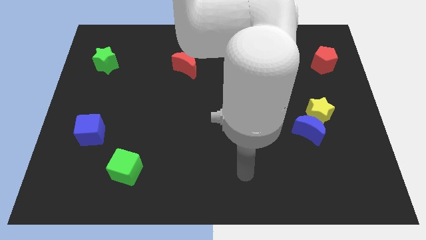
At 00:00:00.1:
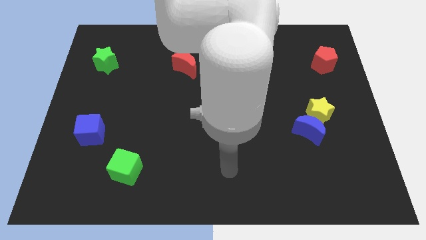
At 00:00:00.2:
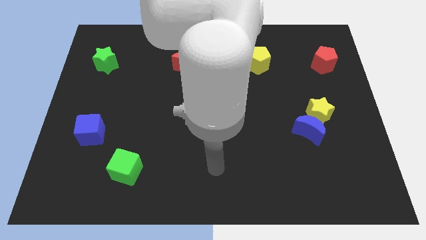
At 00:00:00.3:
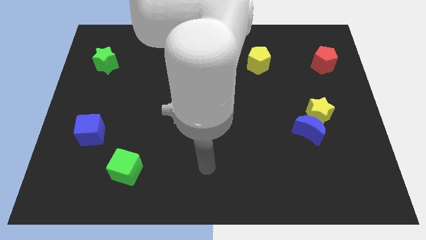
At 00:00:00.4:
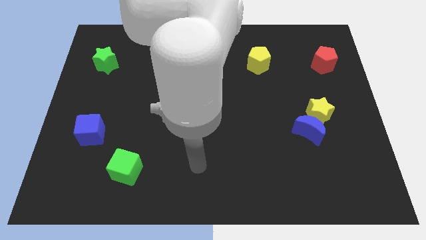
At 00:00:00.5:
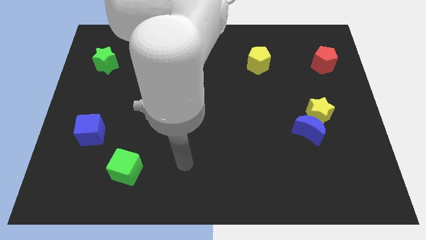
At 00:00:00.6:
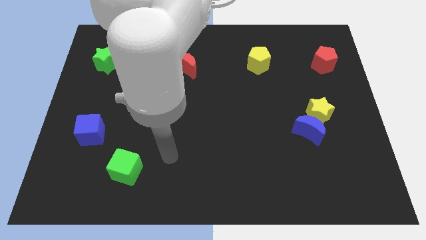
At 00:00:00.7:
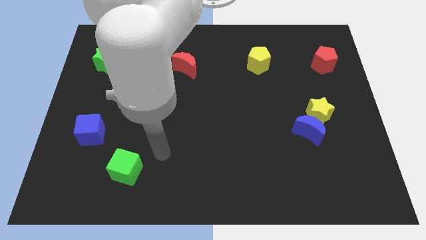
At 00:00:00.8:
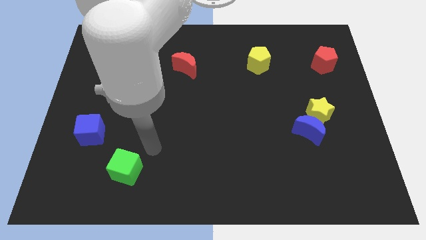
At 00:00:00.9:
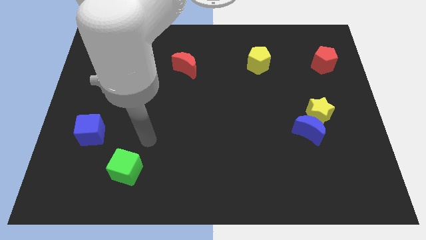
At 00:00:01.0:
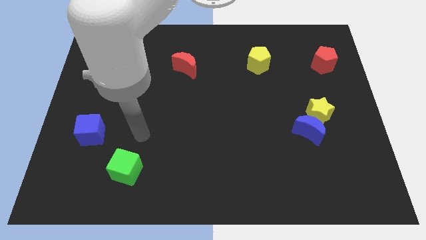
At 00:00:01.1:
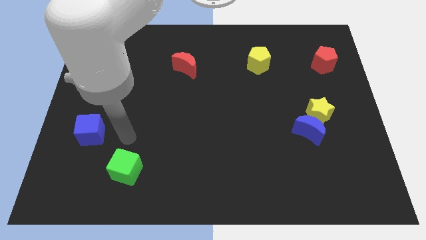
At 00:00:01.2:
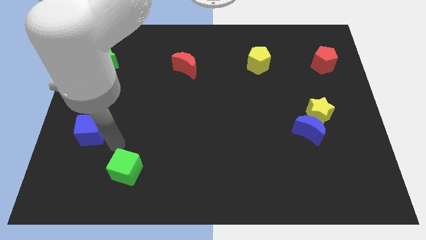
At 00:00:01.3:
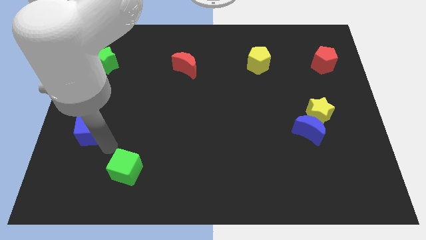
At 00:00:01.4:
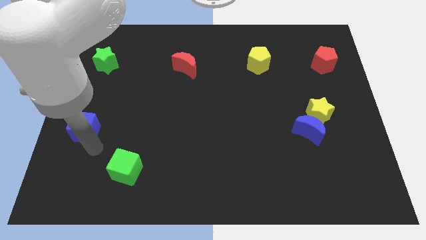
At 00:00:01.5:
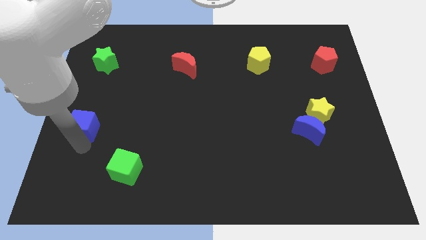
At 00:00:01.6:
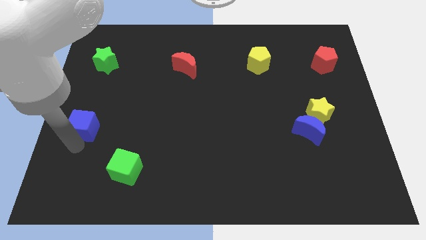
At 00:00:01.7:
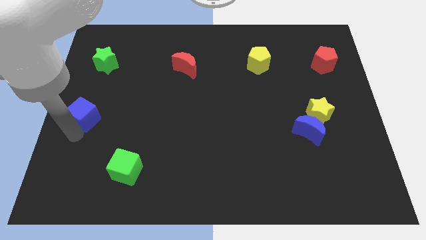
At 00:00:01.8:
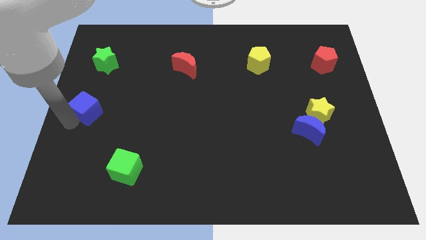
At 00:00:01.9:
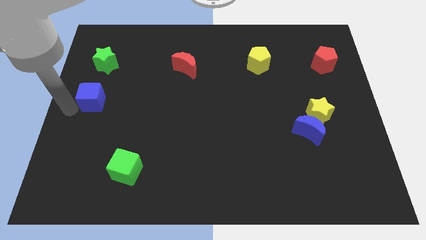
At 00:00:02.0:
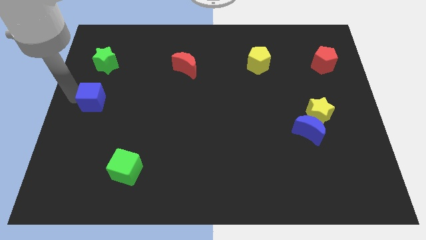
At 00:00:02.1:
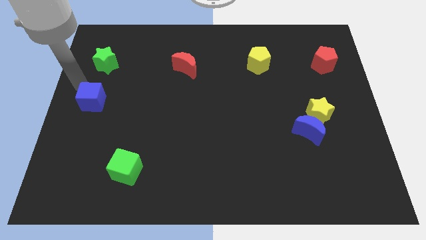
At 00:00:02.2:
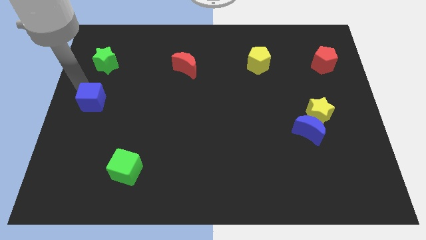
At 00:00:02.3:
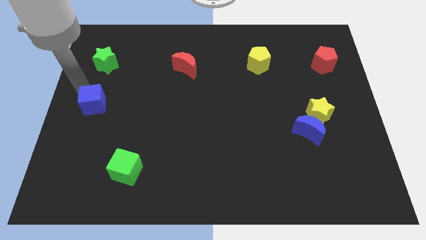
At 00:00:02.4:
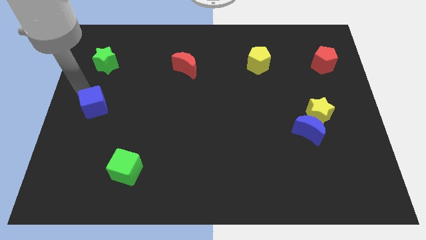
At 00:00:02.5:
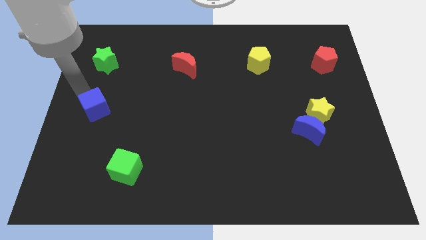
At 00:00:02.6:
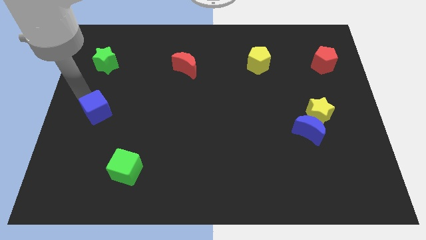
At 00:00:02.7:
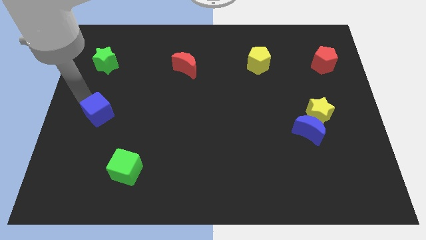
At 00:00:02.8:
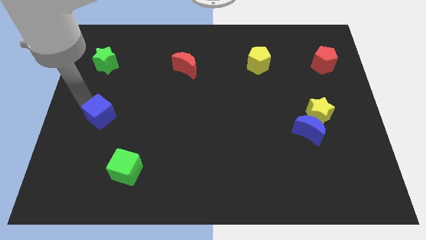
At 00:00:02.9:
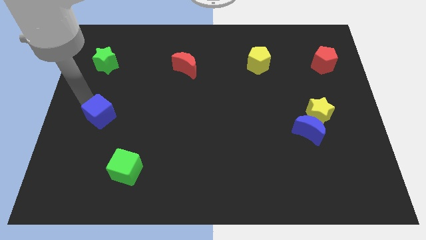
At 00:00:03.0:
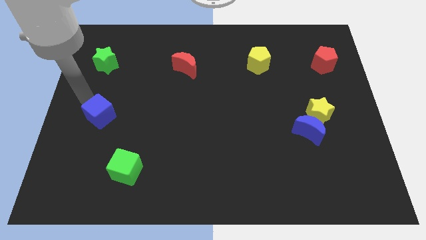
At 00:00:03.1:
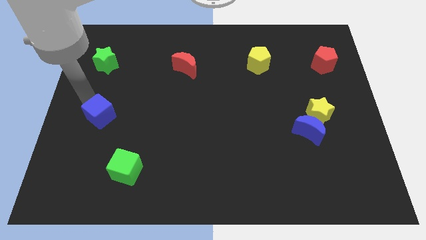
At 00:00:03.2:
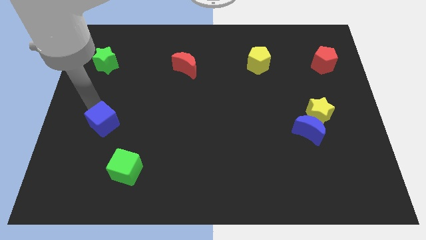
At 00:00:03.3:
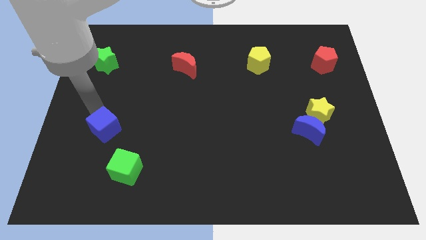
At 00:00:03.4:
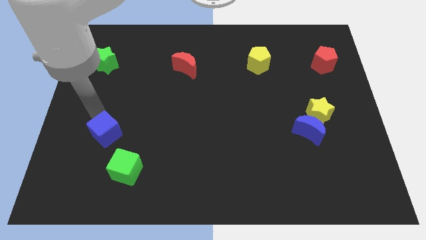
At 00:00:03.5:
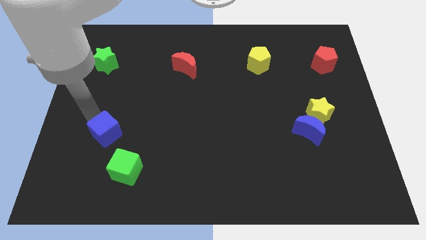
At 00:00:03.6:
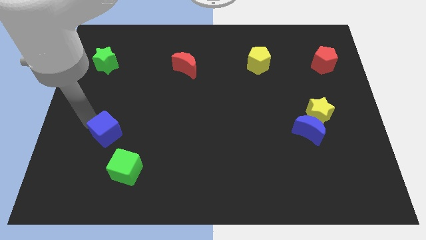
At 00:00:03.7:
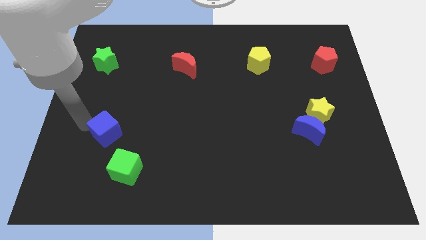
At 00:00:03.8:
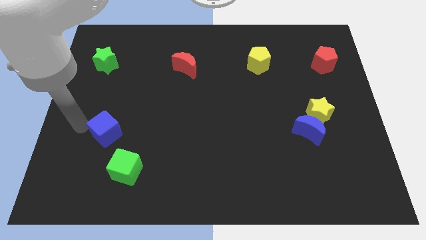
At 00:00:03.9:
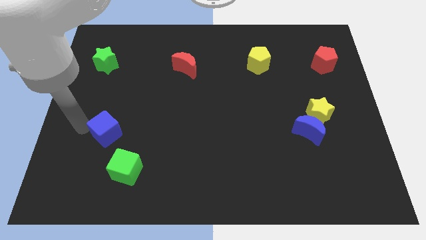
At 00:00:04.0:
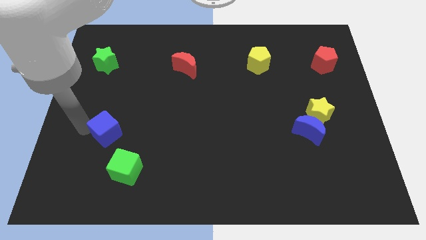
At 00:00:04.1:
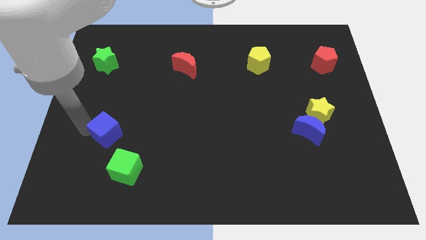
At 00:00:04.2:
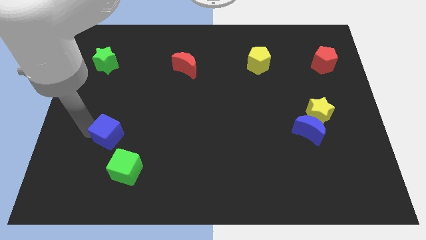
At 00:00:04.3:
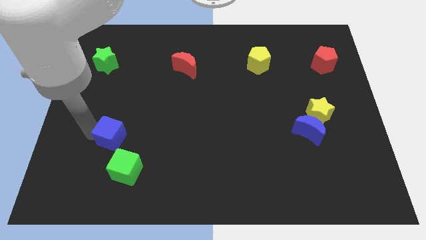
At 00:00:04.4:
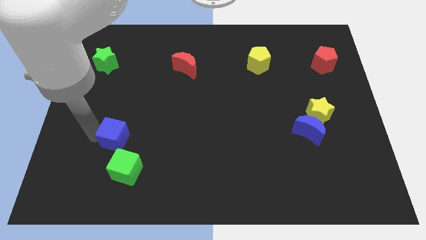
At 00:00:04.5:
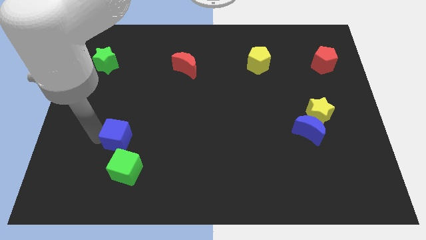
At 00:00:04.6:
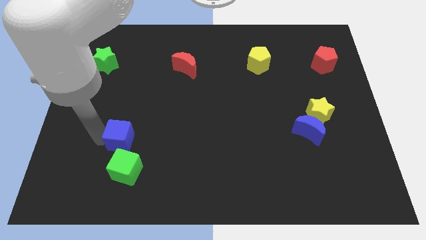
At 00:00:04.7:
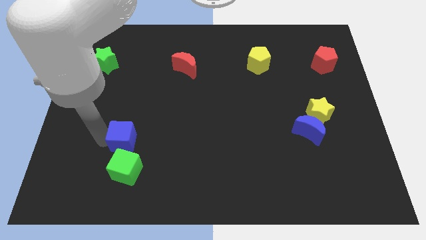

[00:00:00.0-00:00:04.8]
slightly slide the blue cube to the right

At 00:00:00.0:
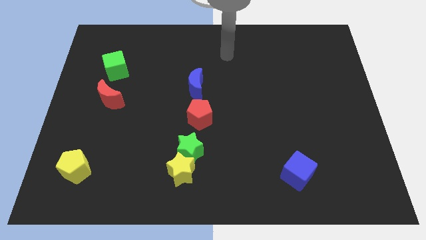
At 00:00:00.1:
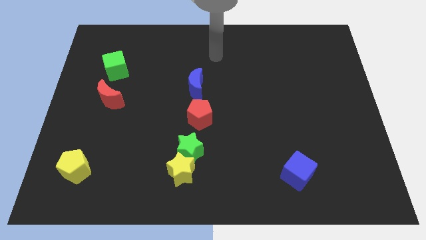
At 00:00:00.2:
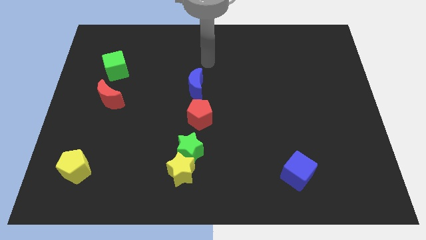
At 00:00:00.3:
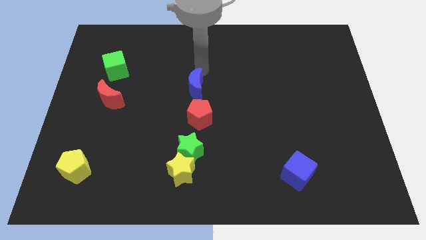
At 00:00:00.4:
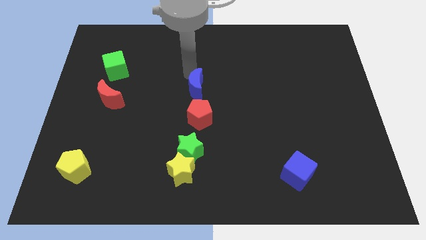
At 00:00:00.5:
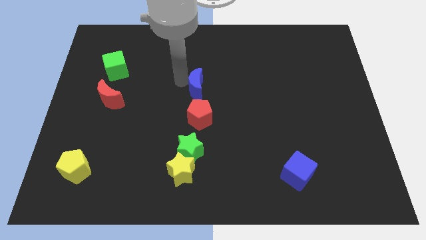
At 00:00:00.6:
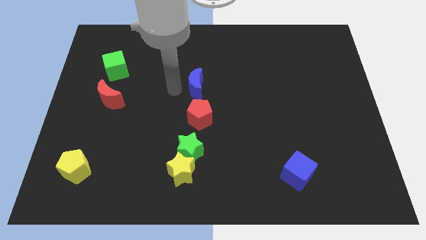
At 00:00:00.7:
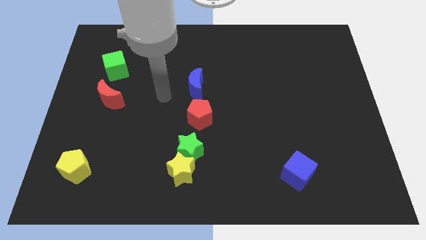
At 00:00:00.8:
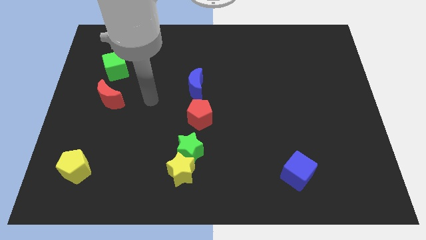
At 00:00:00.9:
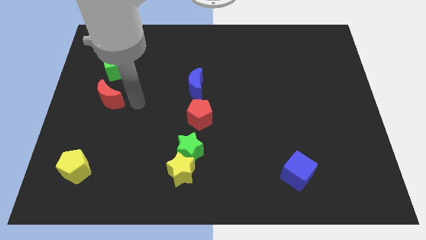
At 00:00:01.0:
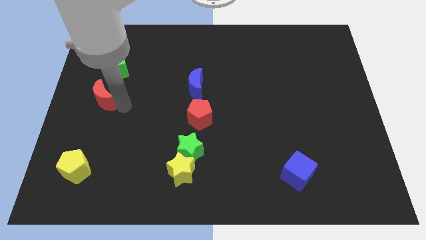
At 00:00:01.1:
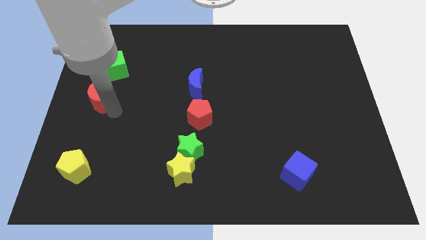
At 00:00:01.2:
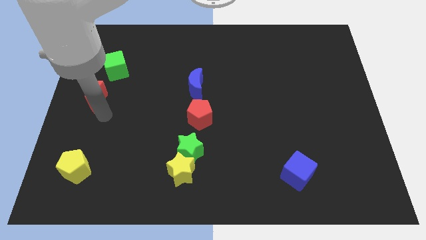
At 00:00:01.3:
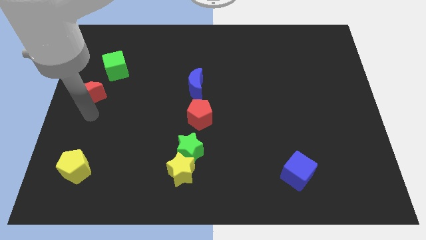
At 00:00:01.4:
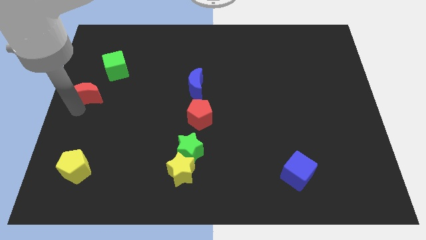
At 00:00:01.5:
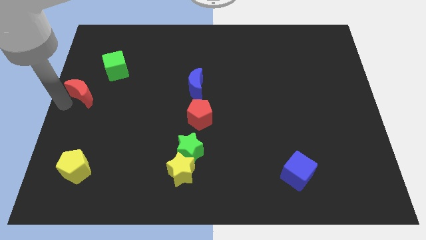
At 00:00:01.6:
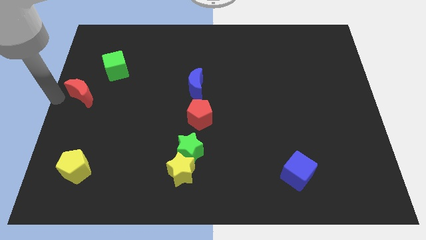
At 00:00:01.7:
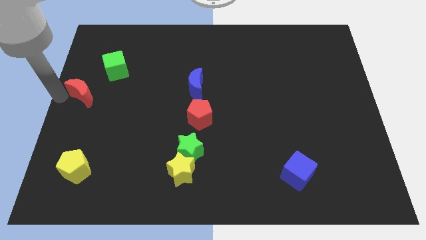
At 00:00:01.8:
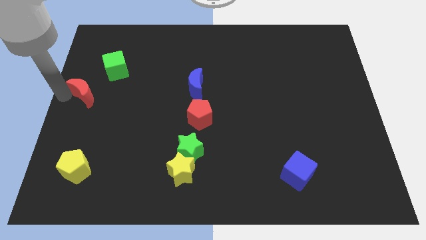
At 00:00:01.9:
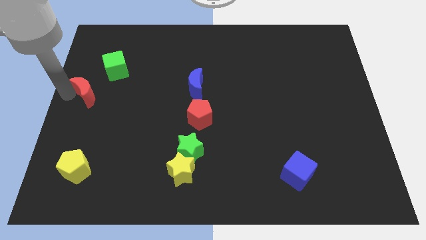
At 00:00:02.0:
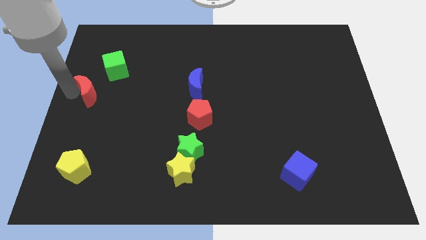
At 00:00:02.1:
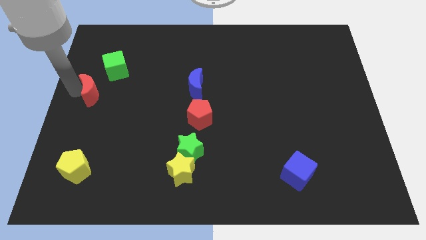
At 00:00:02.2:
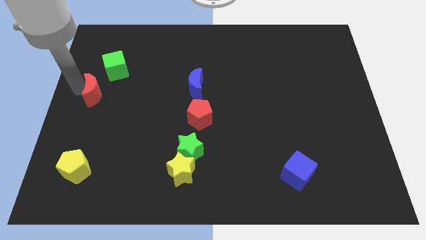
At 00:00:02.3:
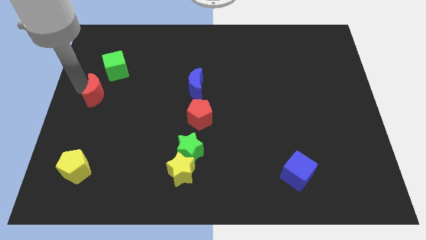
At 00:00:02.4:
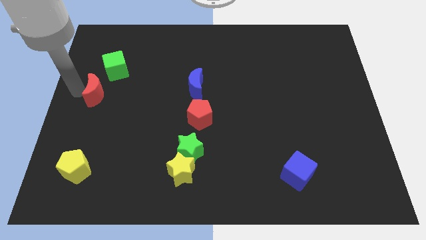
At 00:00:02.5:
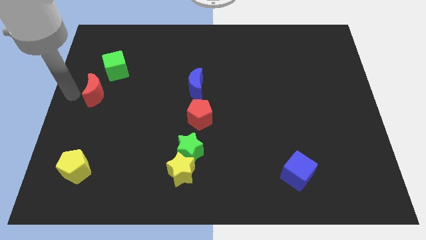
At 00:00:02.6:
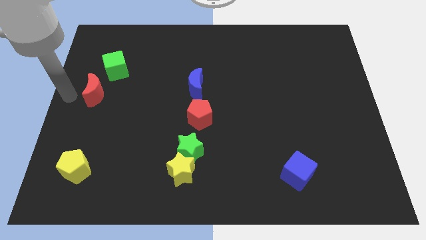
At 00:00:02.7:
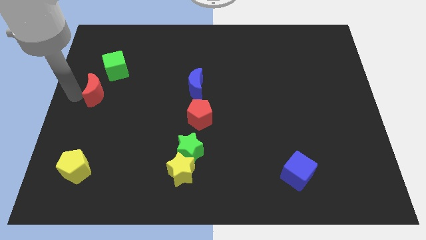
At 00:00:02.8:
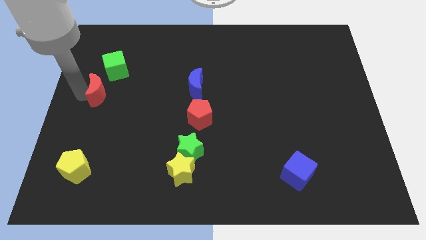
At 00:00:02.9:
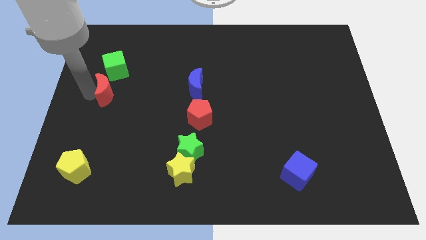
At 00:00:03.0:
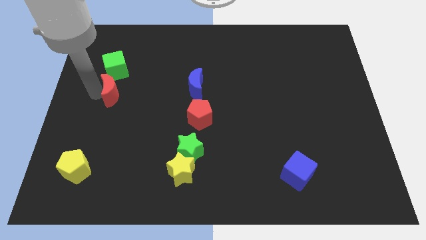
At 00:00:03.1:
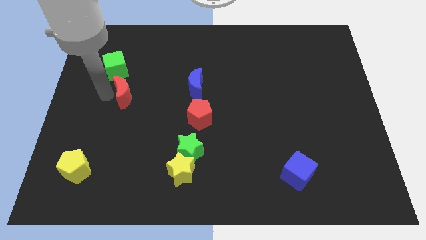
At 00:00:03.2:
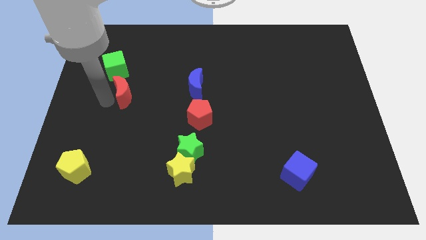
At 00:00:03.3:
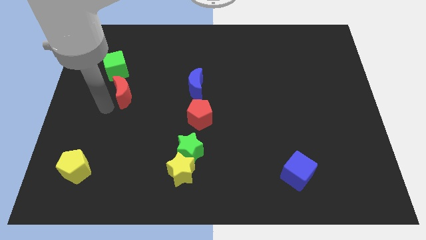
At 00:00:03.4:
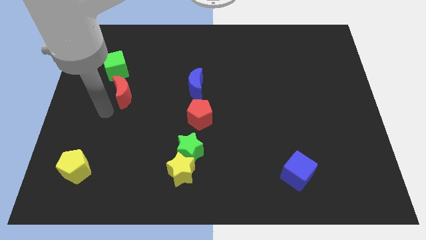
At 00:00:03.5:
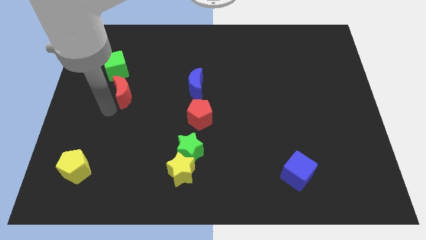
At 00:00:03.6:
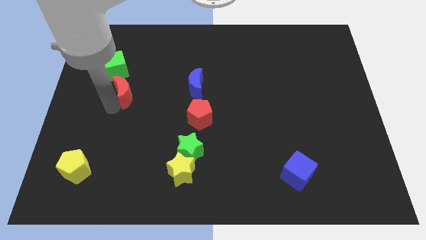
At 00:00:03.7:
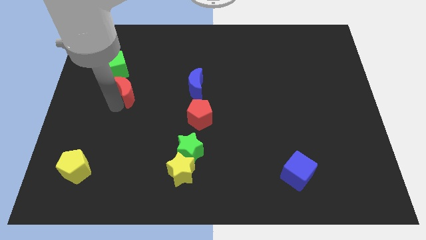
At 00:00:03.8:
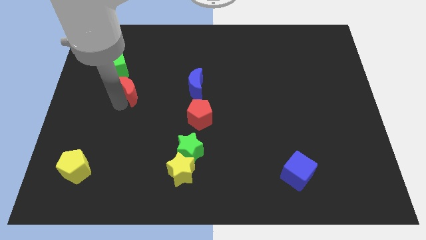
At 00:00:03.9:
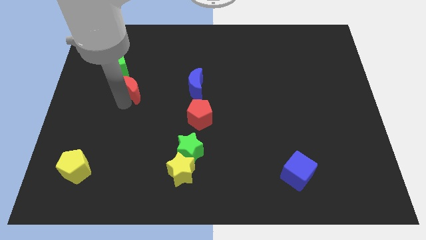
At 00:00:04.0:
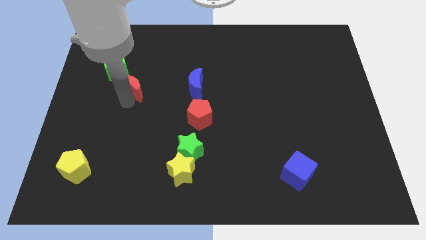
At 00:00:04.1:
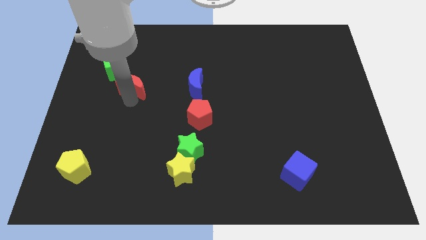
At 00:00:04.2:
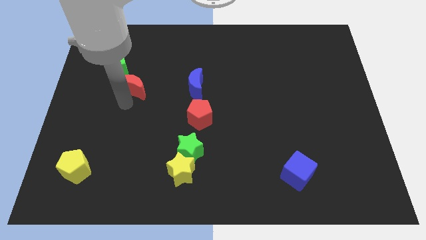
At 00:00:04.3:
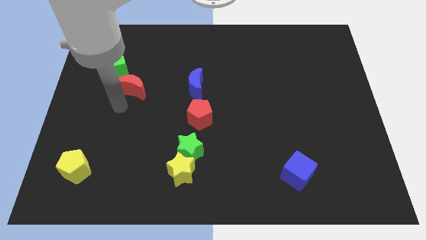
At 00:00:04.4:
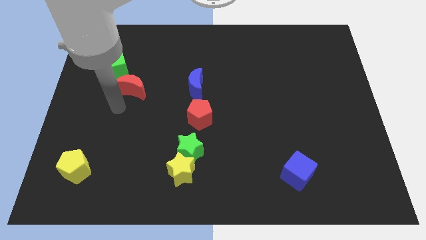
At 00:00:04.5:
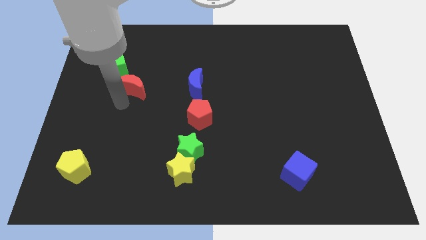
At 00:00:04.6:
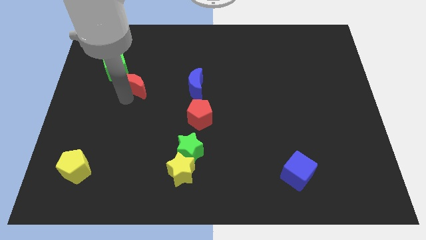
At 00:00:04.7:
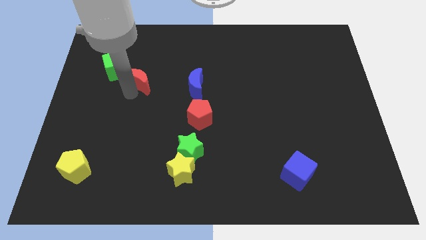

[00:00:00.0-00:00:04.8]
push the red moon diagonally upwards and to the right slightly
